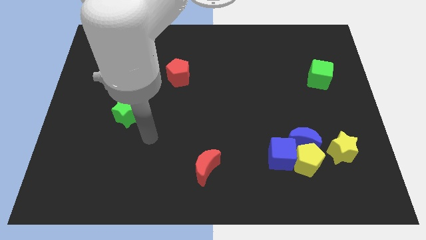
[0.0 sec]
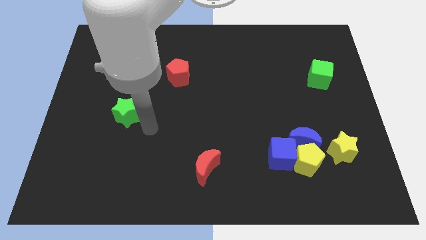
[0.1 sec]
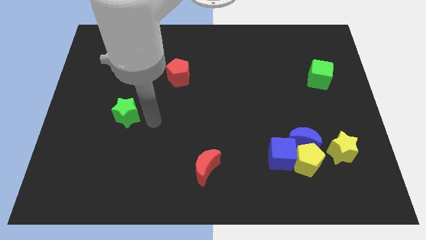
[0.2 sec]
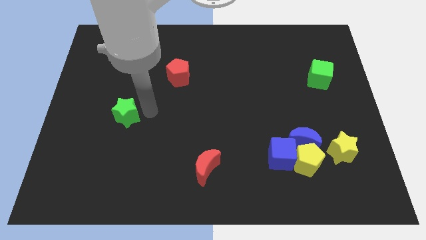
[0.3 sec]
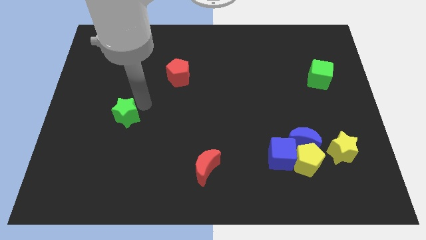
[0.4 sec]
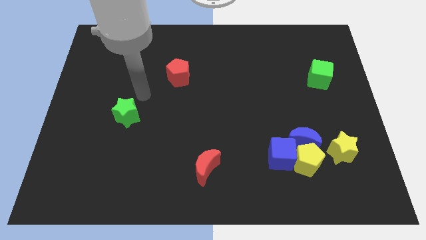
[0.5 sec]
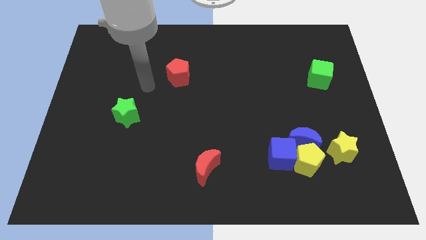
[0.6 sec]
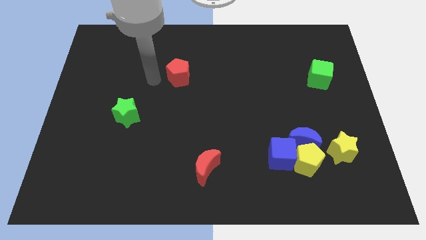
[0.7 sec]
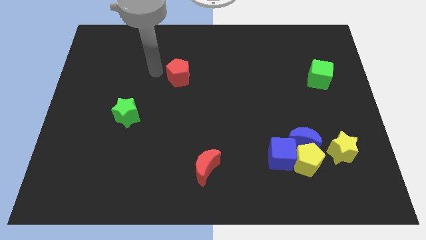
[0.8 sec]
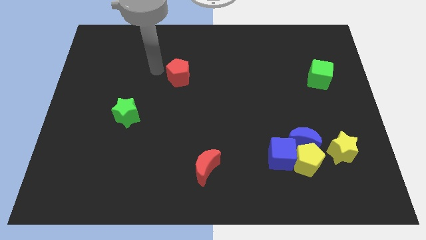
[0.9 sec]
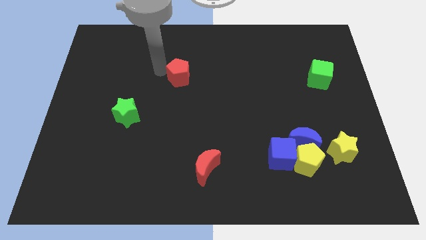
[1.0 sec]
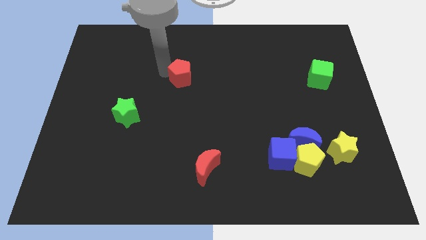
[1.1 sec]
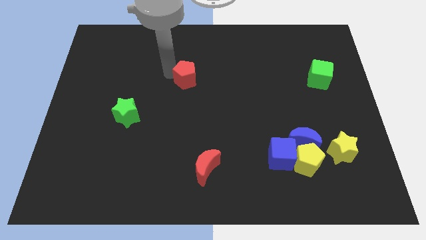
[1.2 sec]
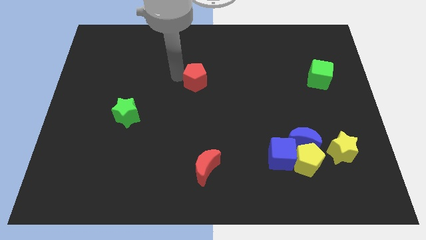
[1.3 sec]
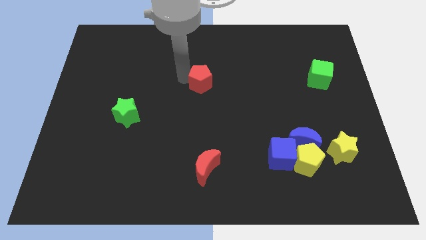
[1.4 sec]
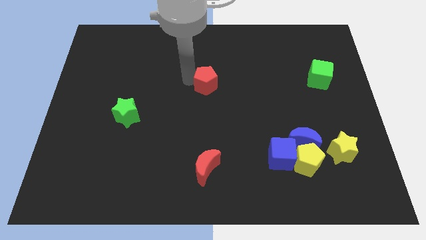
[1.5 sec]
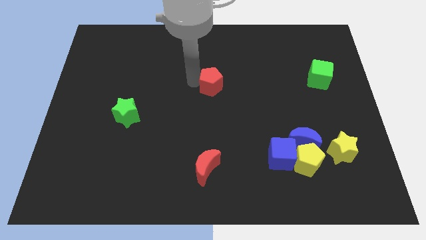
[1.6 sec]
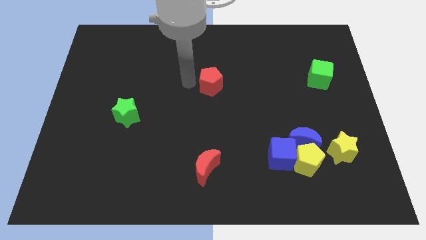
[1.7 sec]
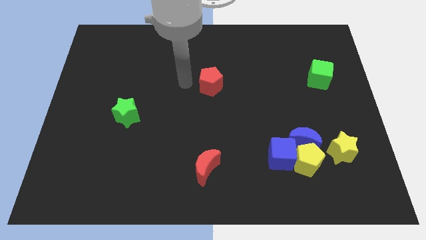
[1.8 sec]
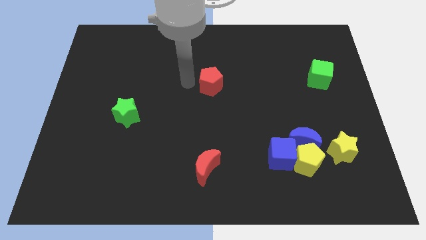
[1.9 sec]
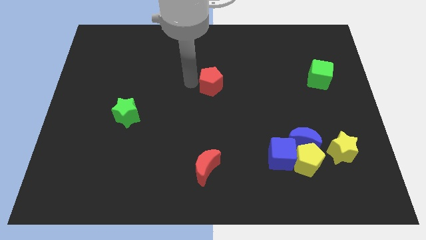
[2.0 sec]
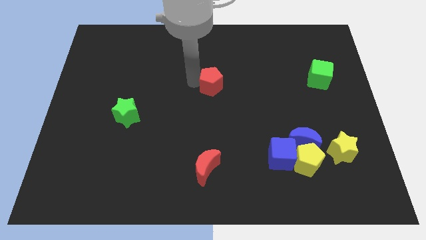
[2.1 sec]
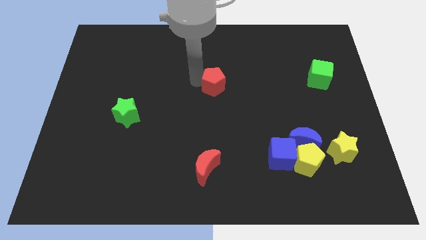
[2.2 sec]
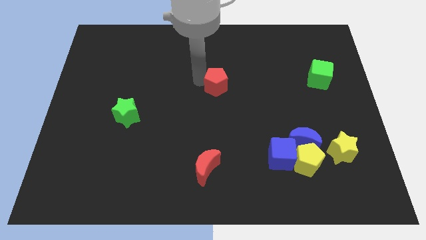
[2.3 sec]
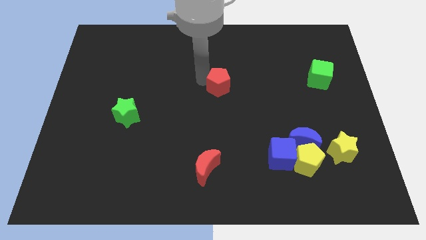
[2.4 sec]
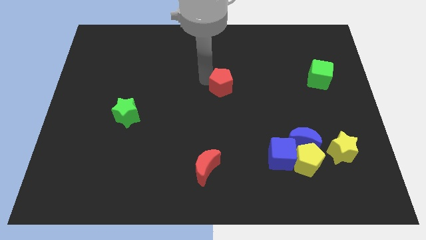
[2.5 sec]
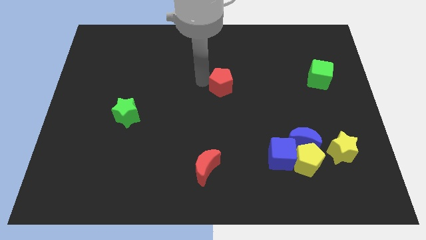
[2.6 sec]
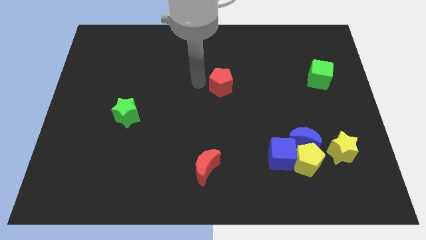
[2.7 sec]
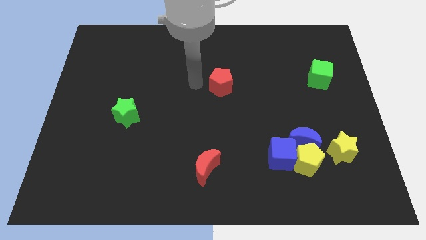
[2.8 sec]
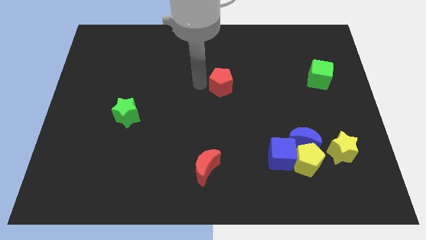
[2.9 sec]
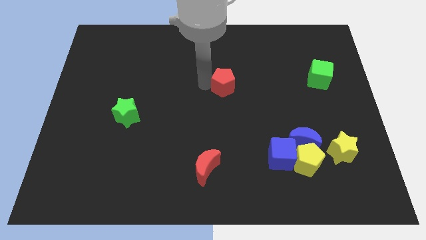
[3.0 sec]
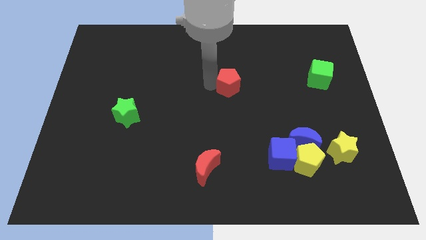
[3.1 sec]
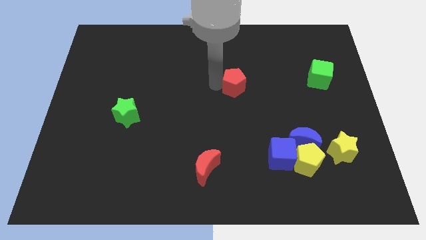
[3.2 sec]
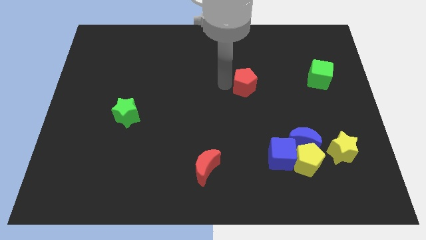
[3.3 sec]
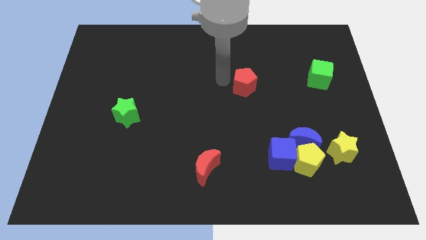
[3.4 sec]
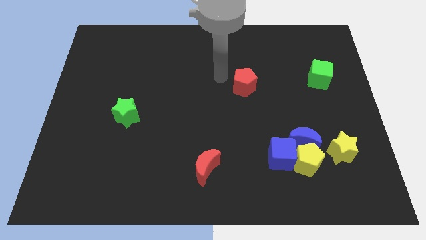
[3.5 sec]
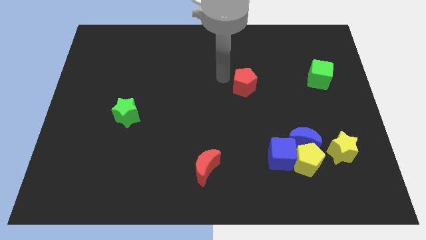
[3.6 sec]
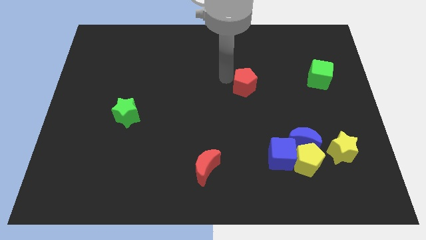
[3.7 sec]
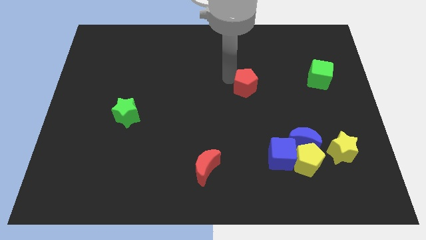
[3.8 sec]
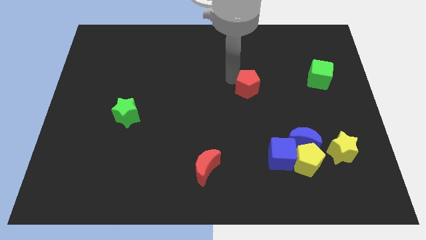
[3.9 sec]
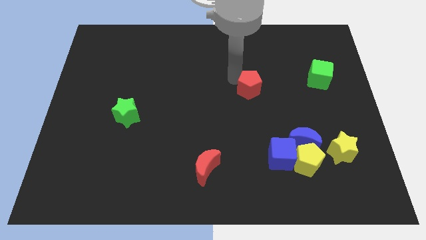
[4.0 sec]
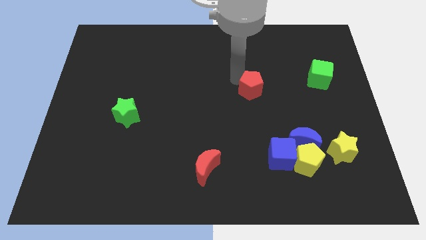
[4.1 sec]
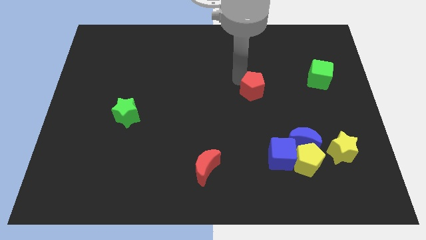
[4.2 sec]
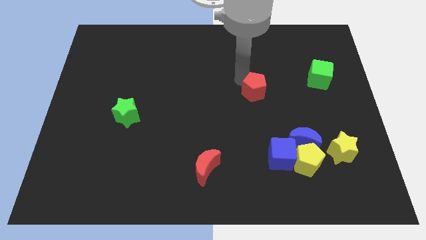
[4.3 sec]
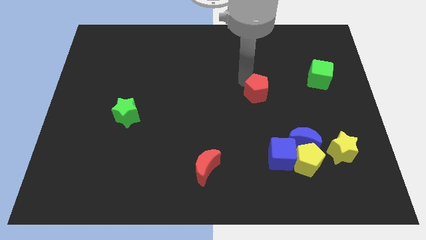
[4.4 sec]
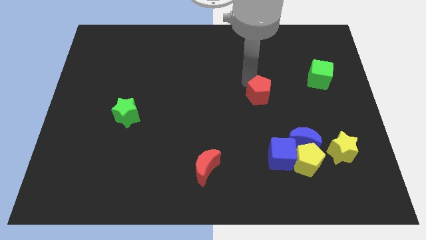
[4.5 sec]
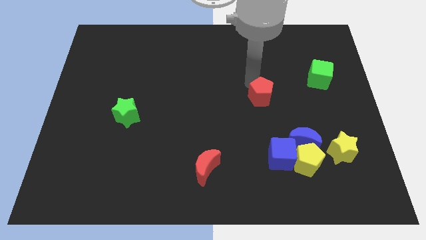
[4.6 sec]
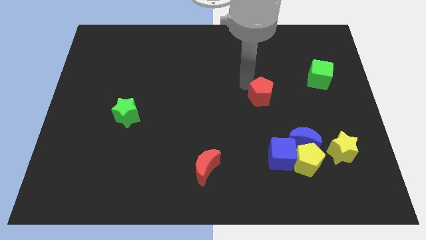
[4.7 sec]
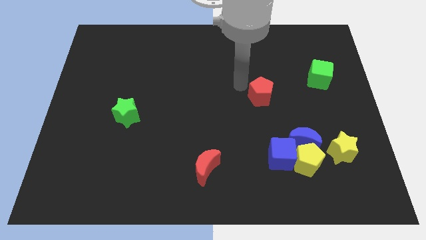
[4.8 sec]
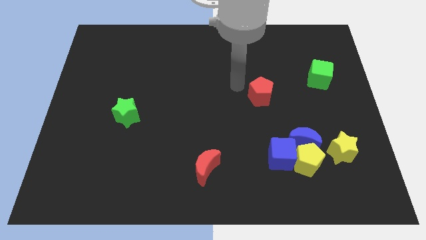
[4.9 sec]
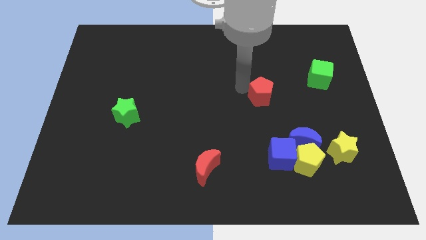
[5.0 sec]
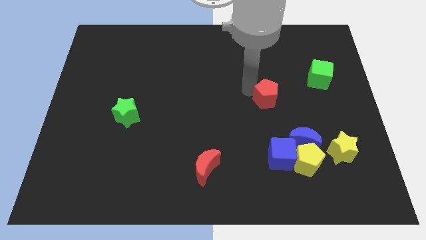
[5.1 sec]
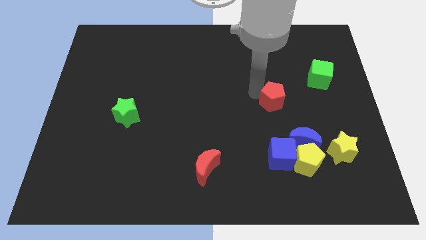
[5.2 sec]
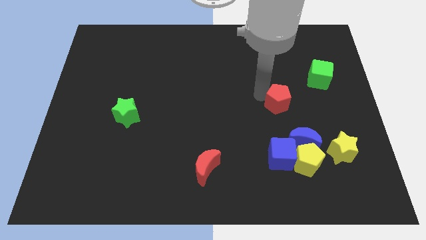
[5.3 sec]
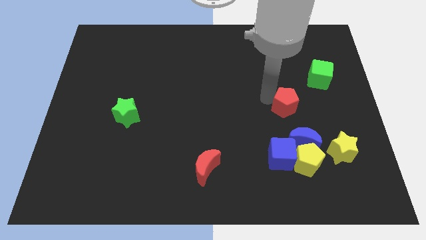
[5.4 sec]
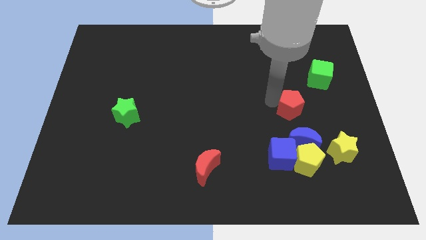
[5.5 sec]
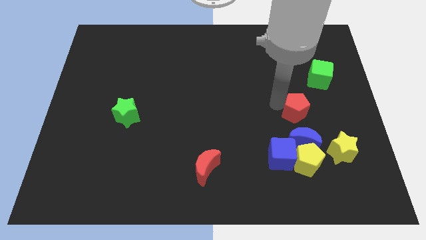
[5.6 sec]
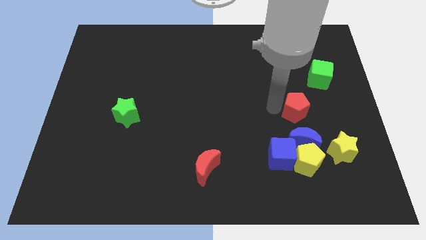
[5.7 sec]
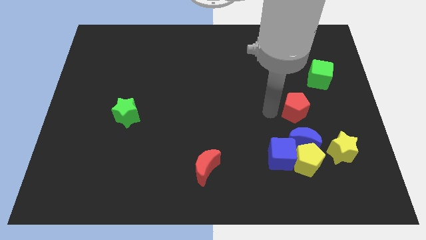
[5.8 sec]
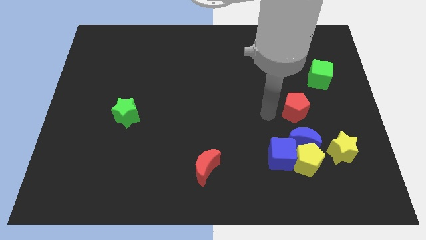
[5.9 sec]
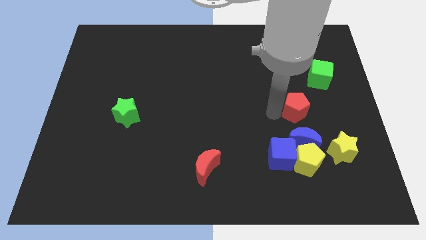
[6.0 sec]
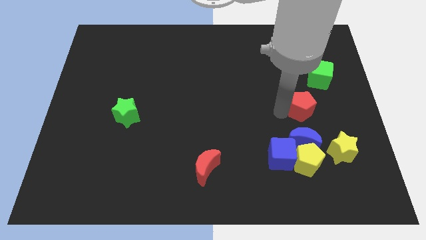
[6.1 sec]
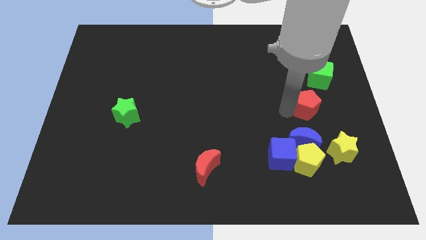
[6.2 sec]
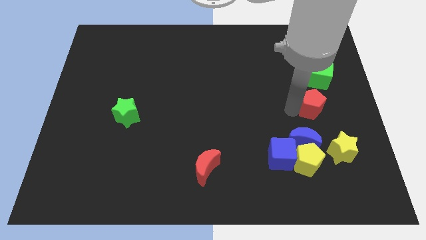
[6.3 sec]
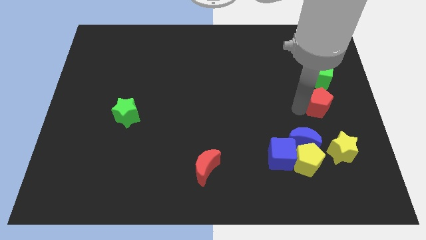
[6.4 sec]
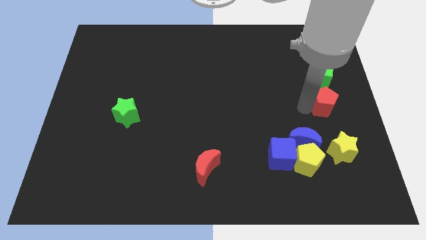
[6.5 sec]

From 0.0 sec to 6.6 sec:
move the red pentagon to the right side of the board
